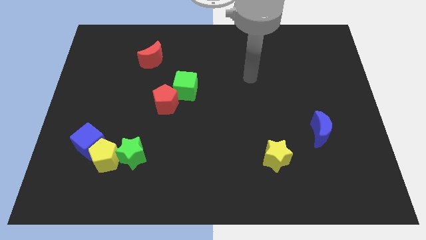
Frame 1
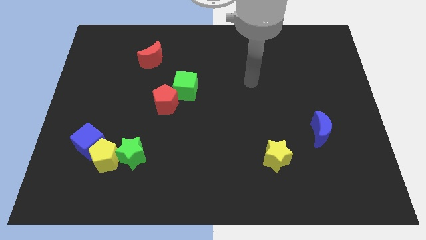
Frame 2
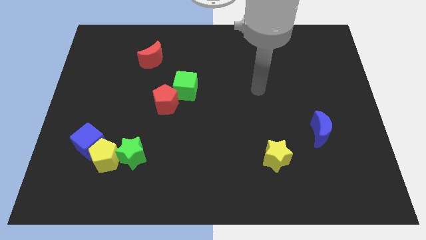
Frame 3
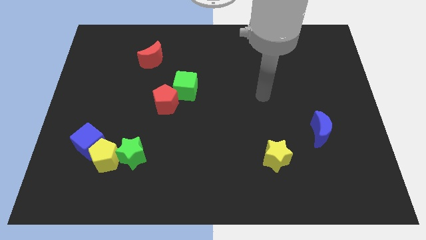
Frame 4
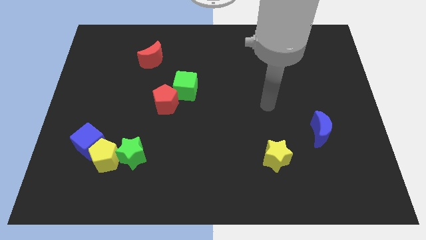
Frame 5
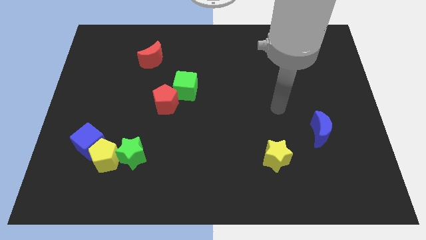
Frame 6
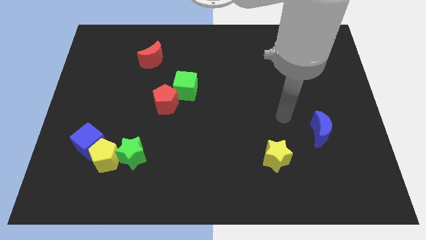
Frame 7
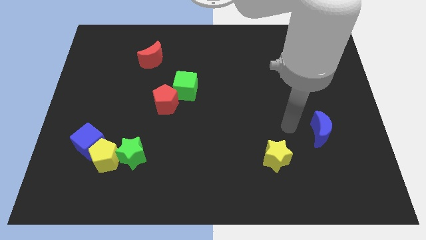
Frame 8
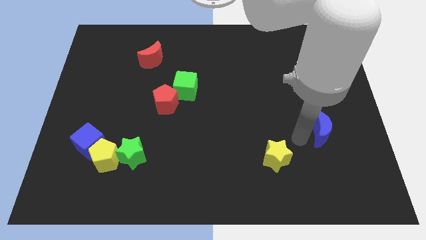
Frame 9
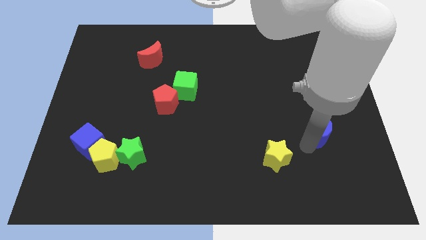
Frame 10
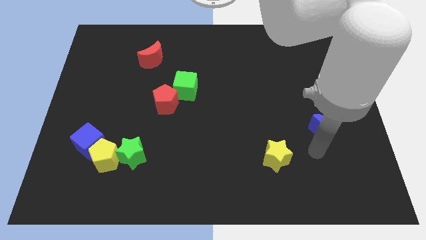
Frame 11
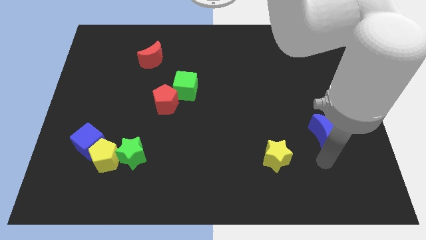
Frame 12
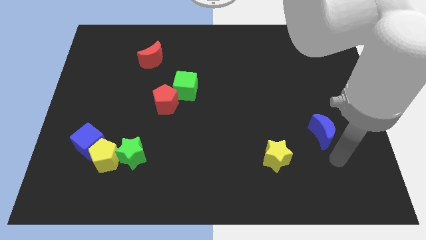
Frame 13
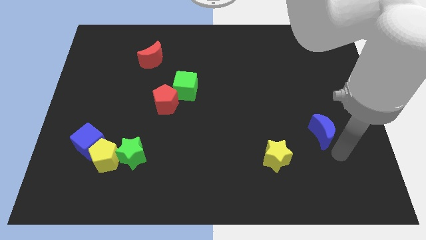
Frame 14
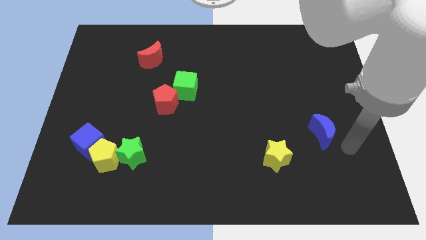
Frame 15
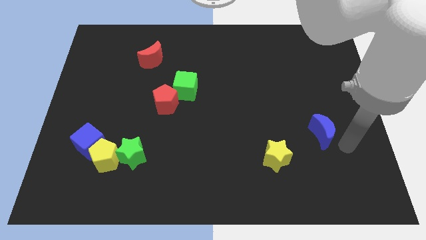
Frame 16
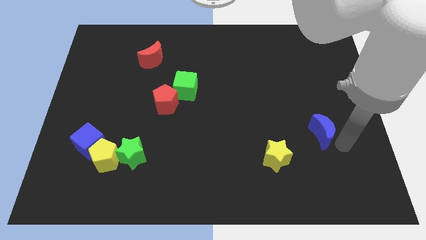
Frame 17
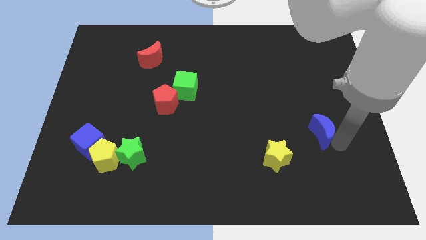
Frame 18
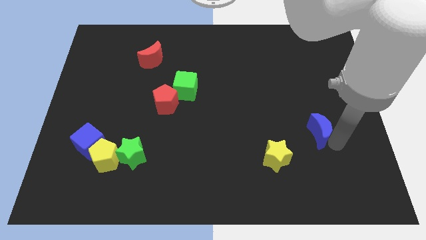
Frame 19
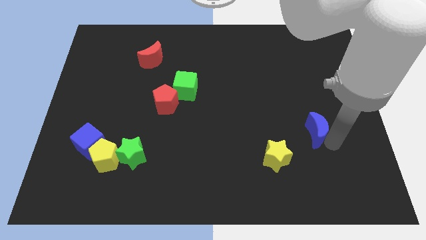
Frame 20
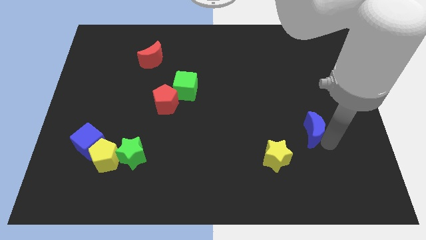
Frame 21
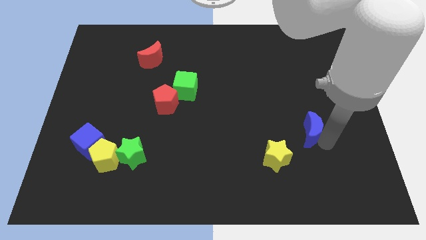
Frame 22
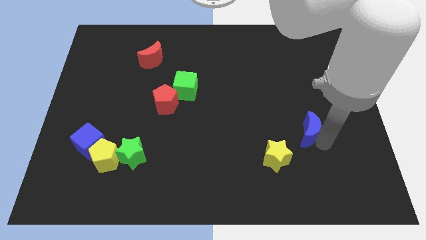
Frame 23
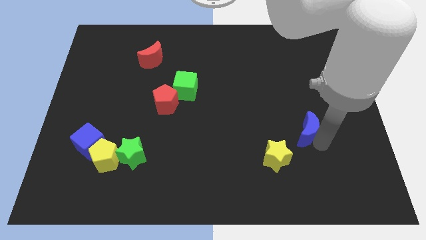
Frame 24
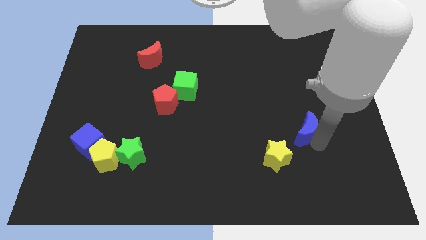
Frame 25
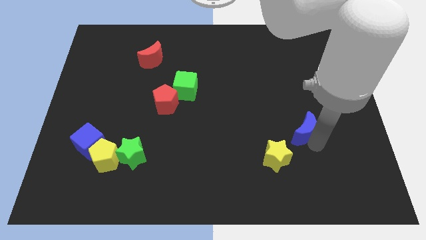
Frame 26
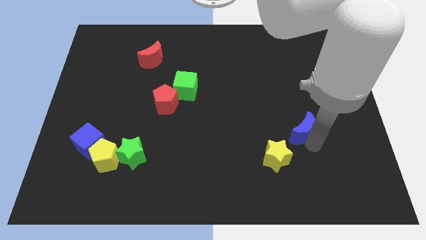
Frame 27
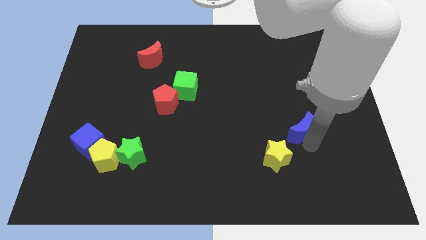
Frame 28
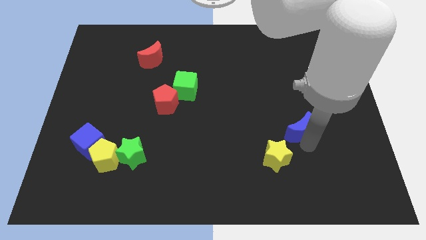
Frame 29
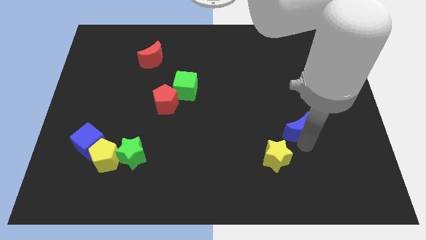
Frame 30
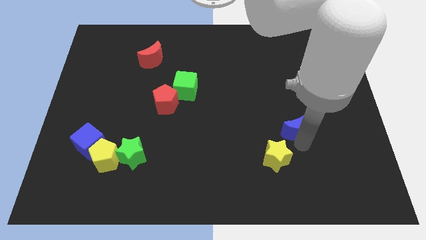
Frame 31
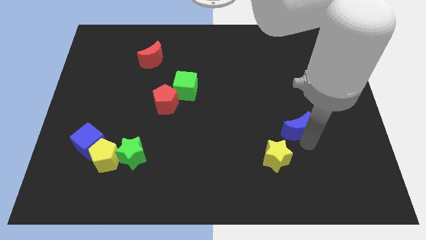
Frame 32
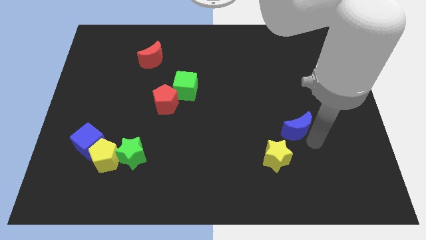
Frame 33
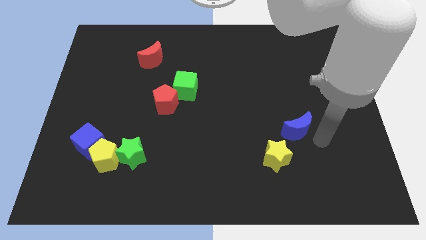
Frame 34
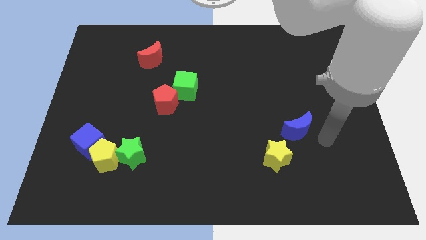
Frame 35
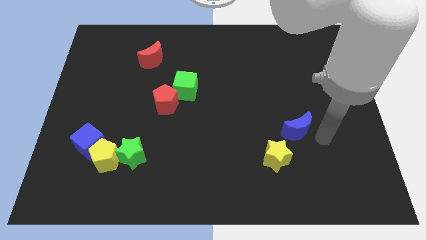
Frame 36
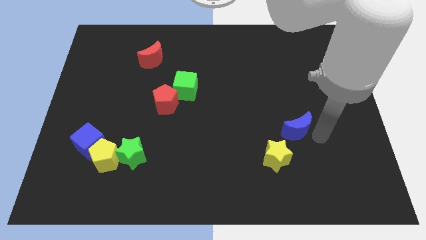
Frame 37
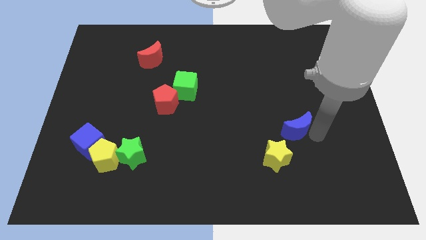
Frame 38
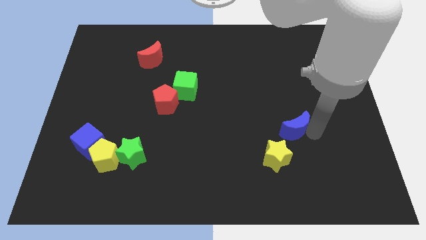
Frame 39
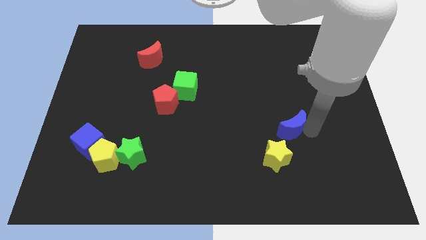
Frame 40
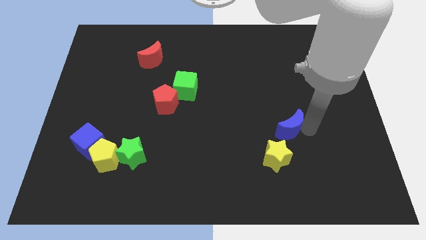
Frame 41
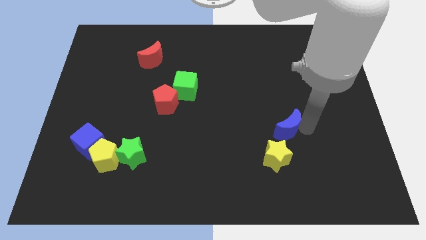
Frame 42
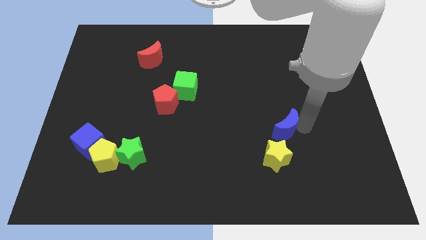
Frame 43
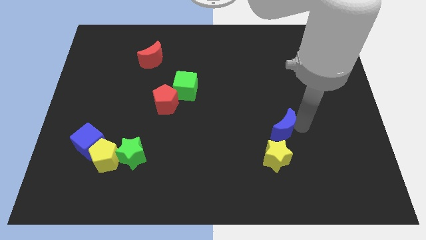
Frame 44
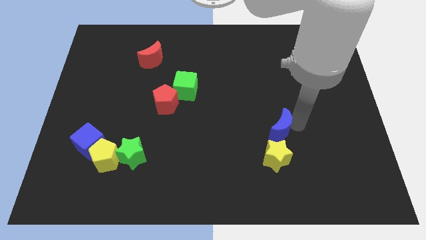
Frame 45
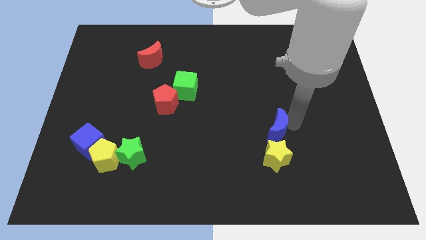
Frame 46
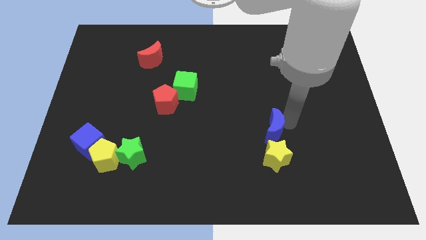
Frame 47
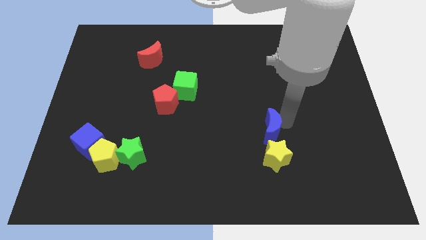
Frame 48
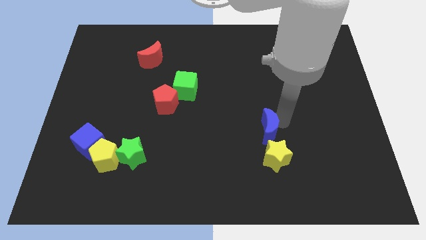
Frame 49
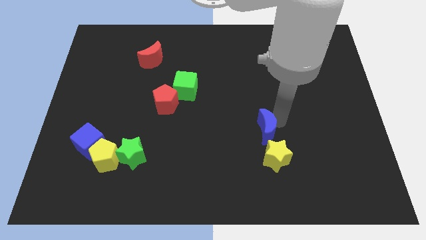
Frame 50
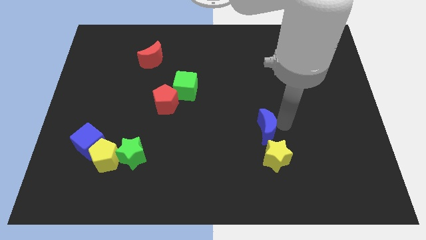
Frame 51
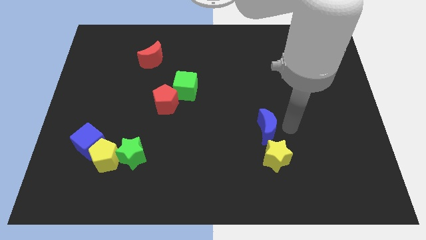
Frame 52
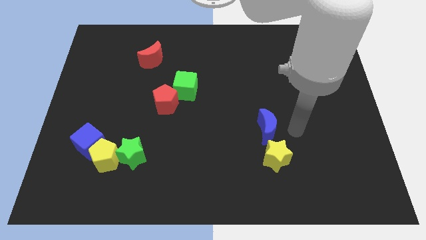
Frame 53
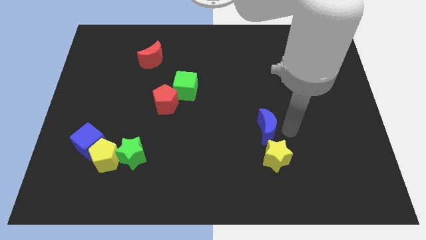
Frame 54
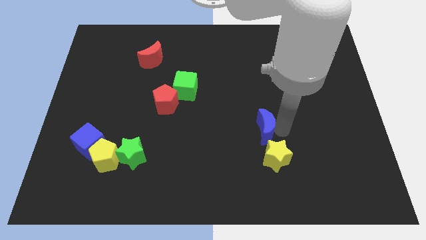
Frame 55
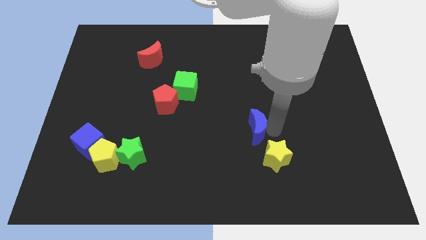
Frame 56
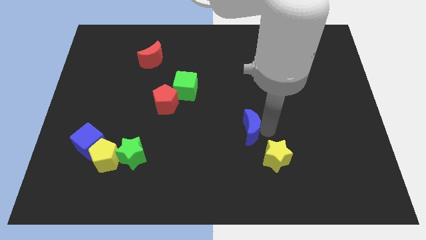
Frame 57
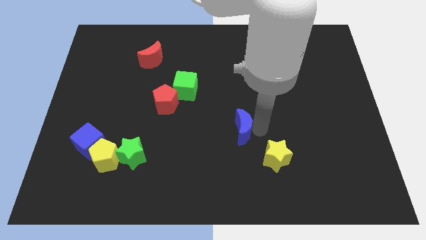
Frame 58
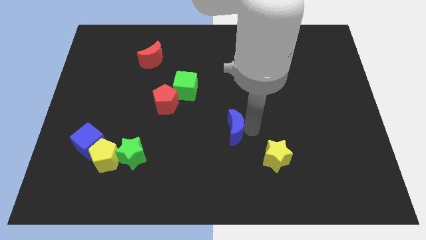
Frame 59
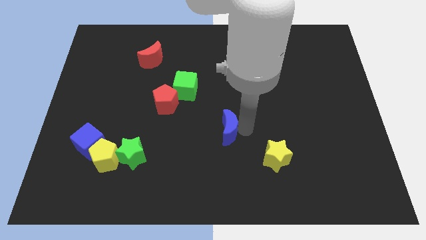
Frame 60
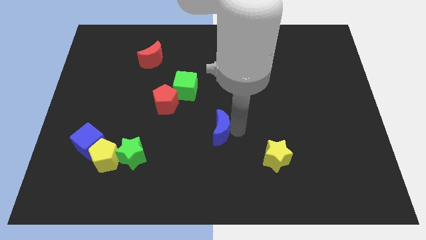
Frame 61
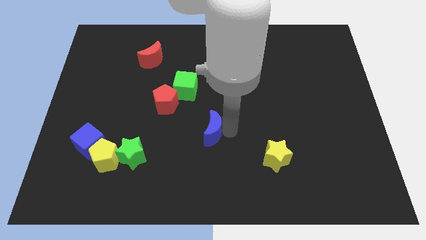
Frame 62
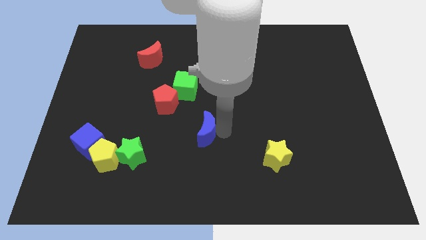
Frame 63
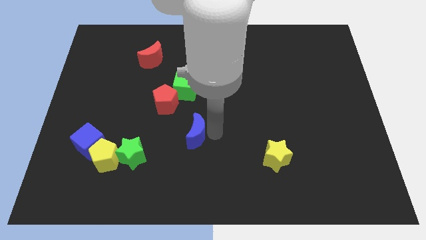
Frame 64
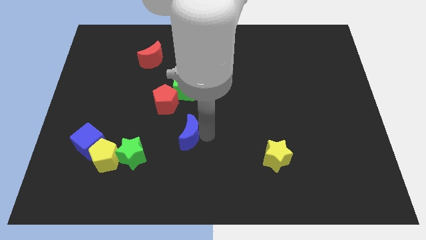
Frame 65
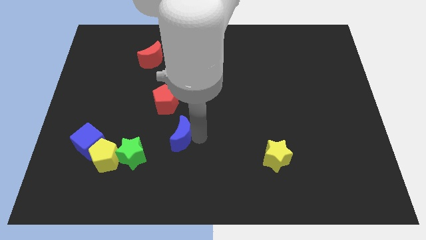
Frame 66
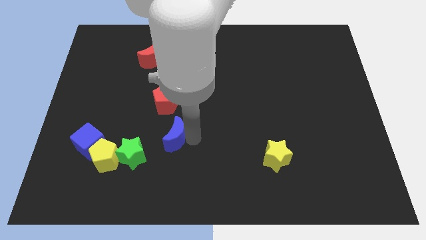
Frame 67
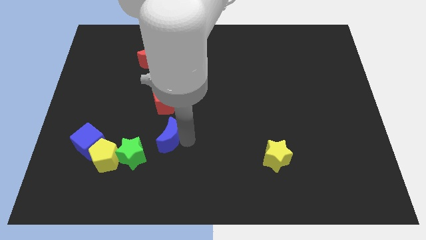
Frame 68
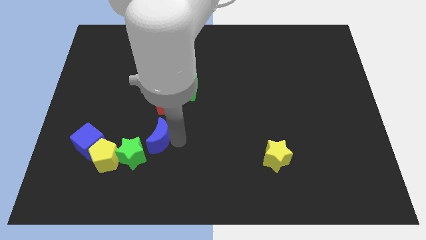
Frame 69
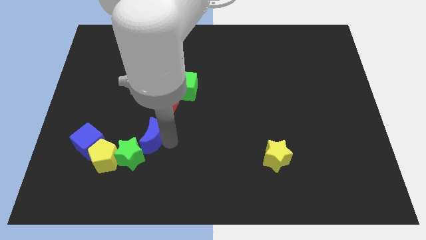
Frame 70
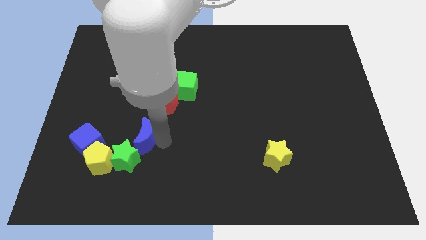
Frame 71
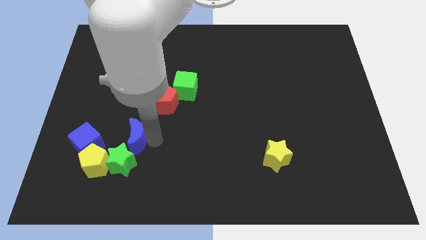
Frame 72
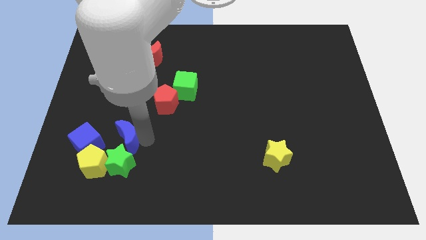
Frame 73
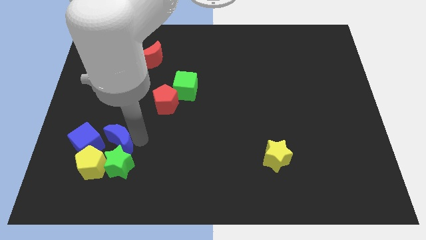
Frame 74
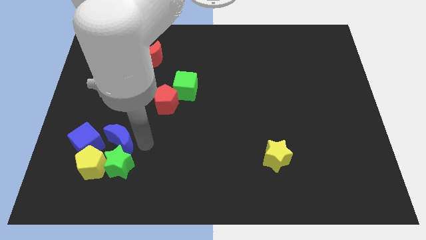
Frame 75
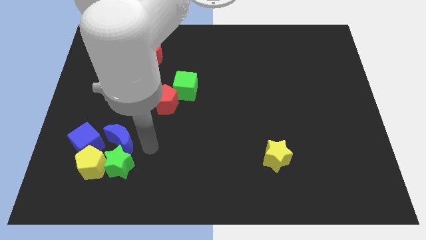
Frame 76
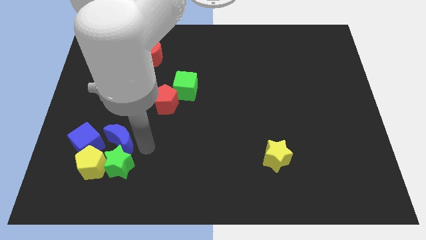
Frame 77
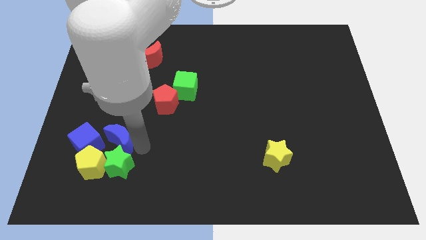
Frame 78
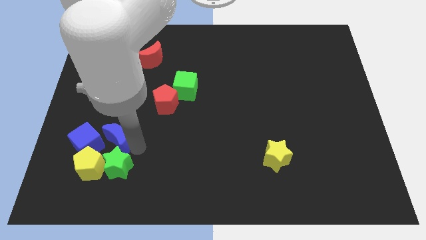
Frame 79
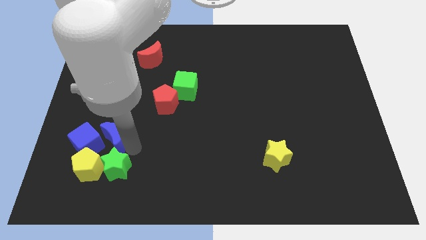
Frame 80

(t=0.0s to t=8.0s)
push the blue moon close to the blue cube
